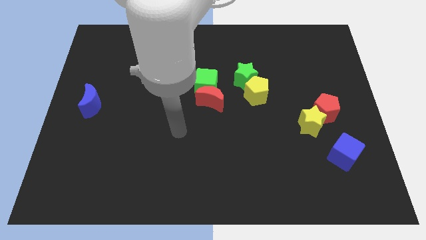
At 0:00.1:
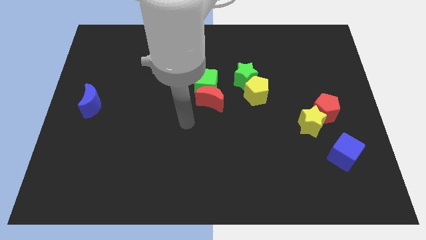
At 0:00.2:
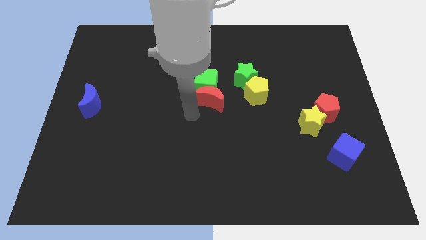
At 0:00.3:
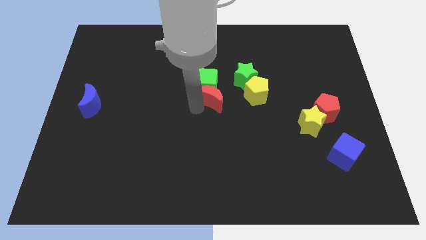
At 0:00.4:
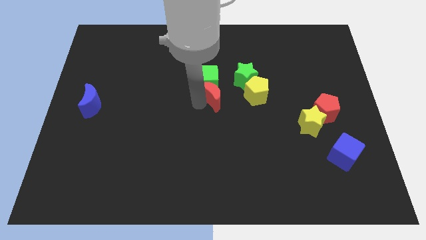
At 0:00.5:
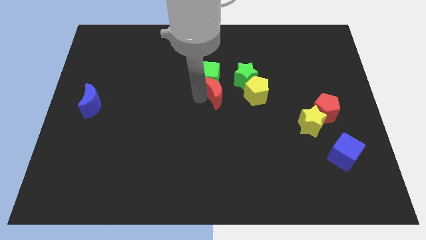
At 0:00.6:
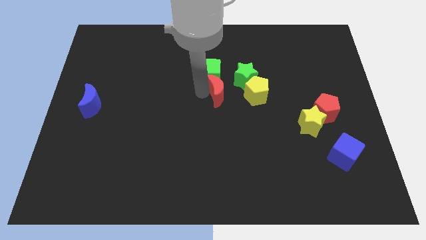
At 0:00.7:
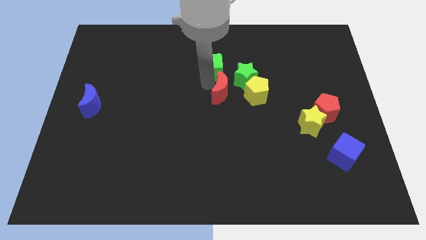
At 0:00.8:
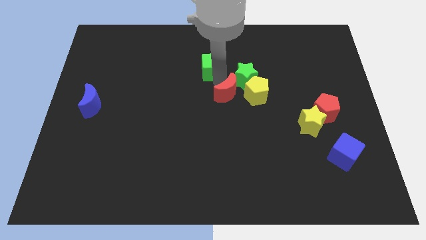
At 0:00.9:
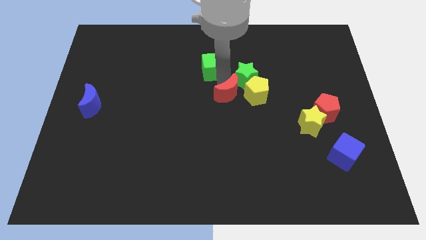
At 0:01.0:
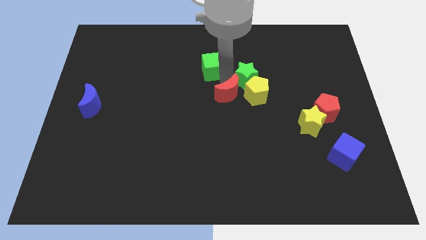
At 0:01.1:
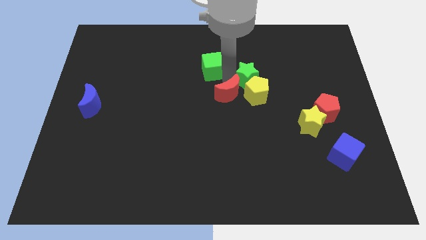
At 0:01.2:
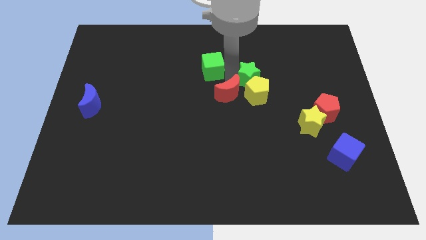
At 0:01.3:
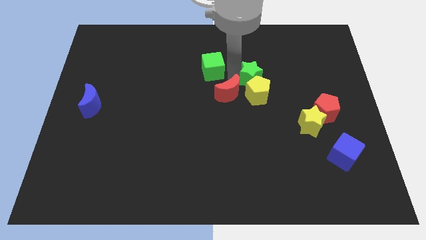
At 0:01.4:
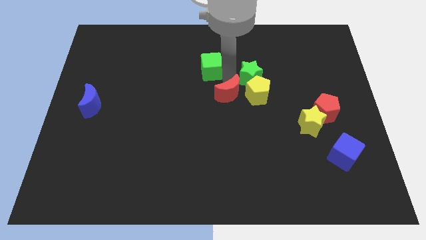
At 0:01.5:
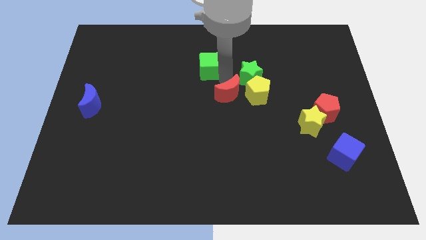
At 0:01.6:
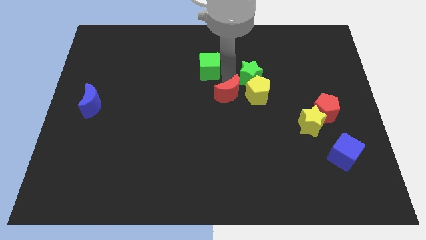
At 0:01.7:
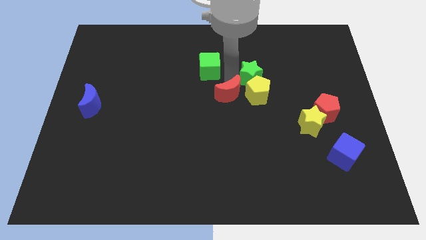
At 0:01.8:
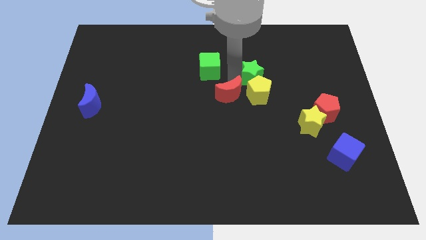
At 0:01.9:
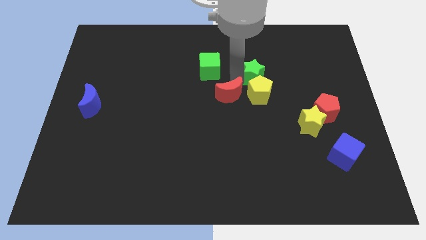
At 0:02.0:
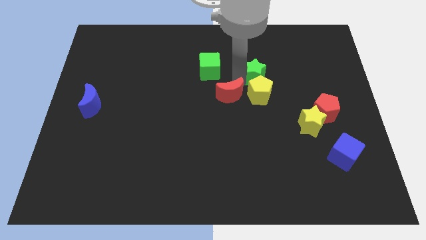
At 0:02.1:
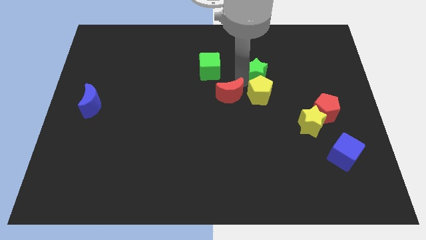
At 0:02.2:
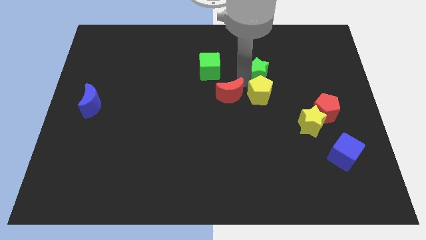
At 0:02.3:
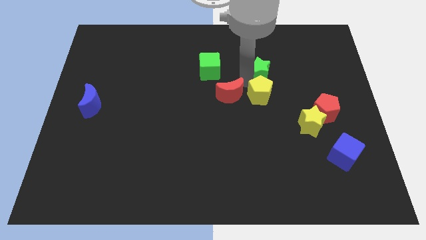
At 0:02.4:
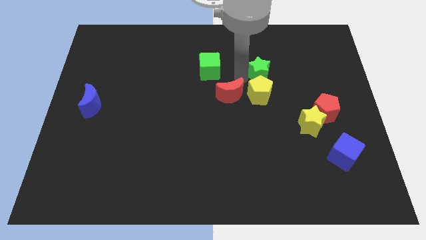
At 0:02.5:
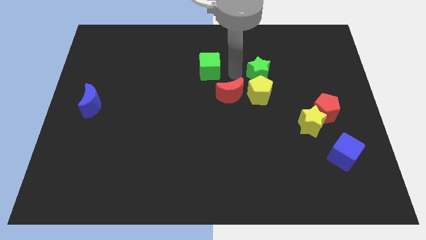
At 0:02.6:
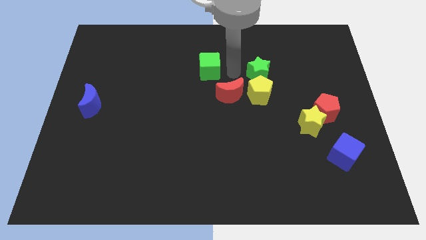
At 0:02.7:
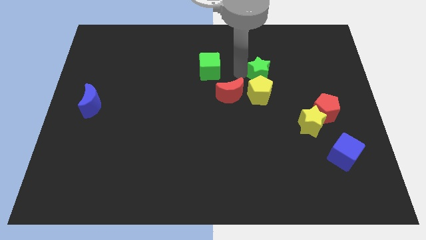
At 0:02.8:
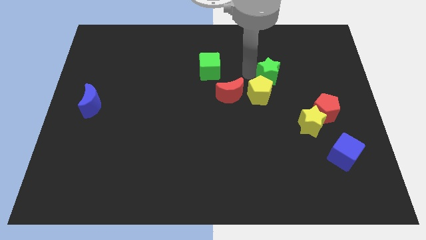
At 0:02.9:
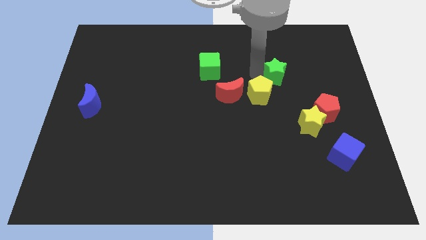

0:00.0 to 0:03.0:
slide the green star a little right

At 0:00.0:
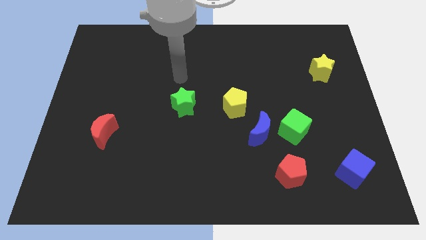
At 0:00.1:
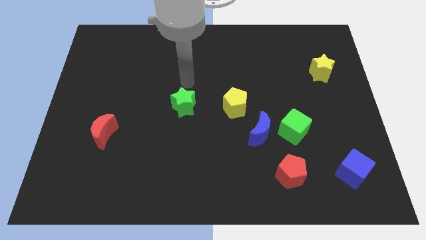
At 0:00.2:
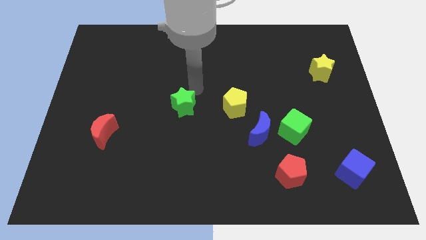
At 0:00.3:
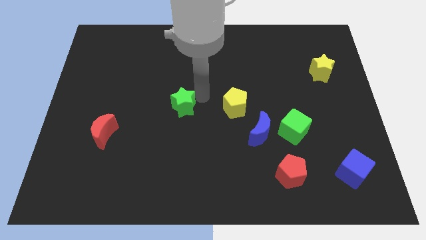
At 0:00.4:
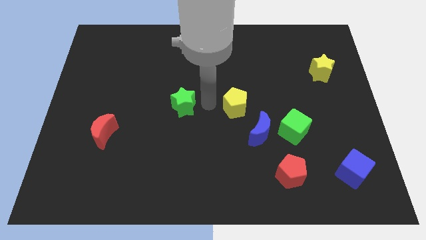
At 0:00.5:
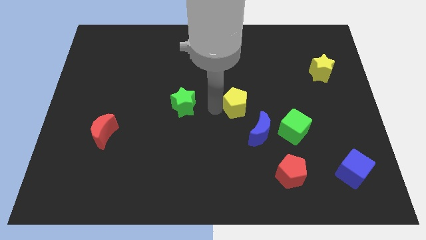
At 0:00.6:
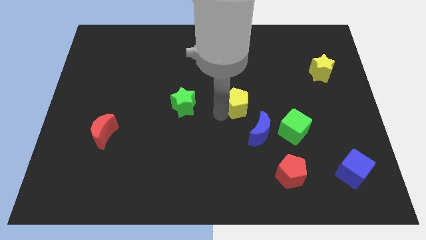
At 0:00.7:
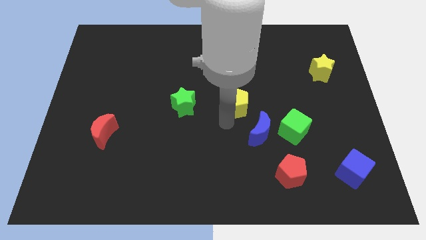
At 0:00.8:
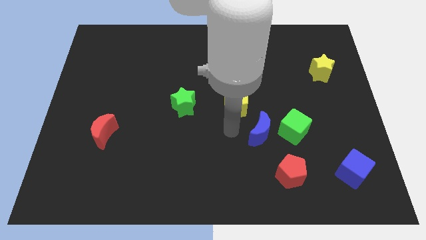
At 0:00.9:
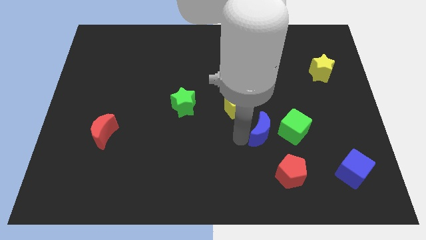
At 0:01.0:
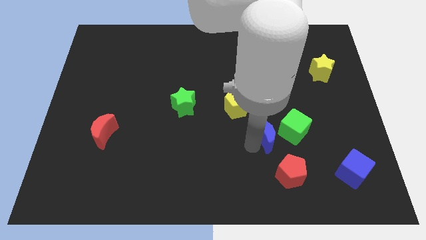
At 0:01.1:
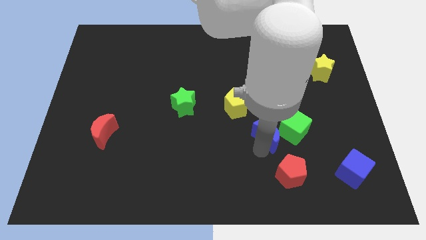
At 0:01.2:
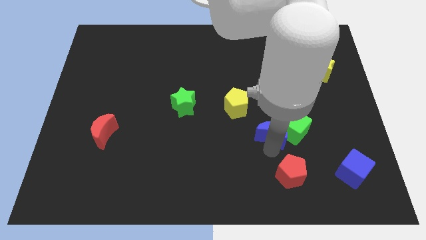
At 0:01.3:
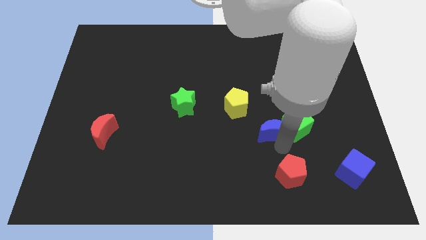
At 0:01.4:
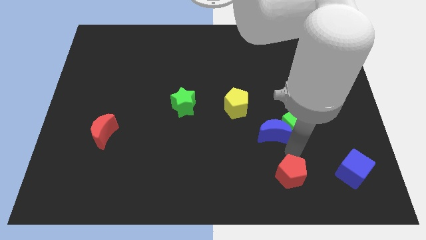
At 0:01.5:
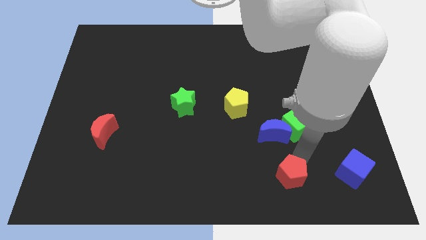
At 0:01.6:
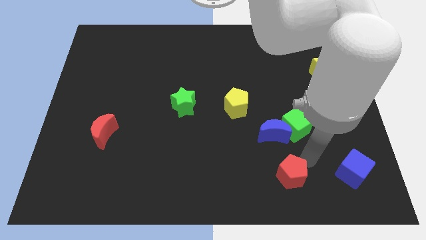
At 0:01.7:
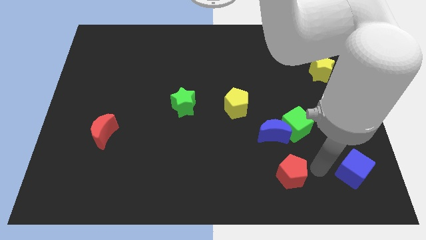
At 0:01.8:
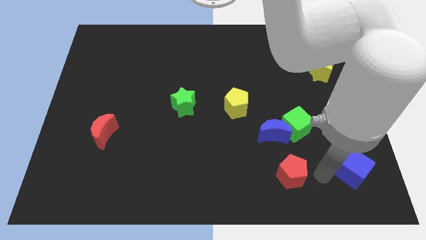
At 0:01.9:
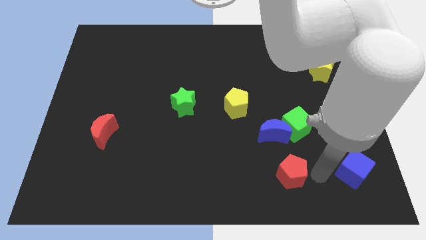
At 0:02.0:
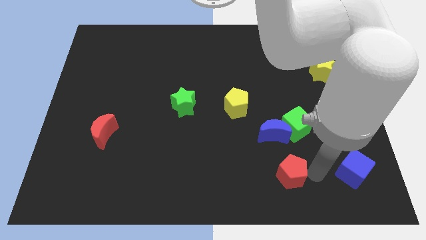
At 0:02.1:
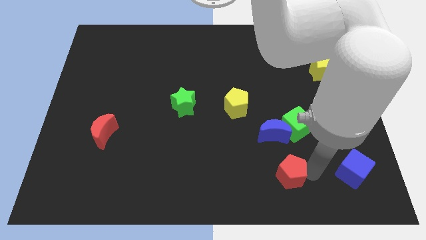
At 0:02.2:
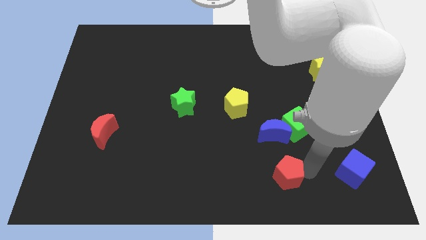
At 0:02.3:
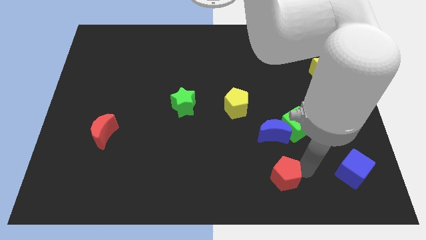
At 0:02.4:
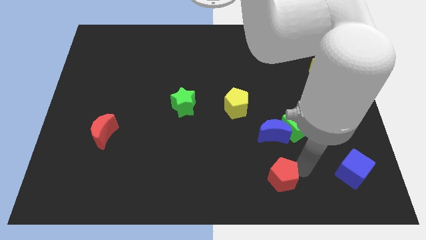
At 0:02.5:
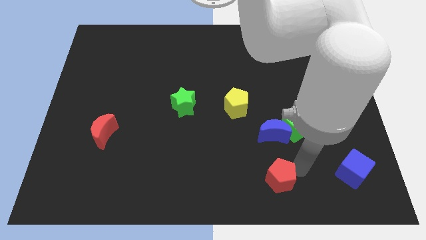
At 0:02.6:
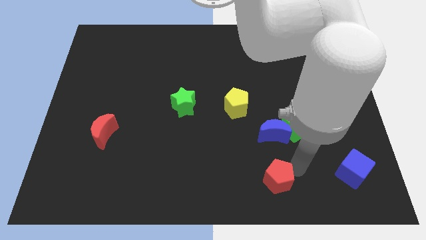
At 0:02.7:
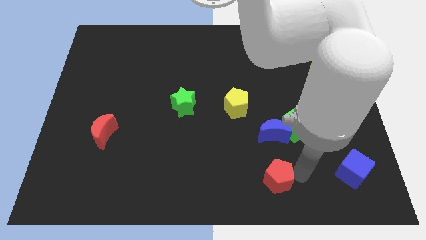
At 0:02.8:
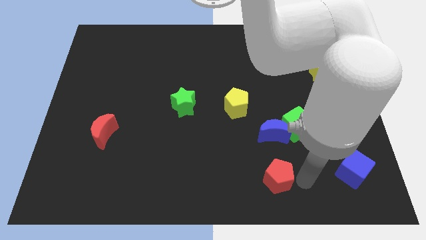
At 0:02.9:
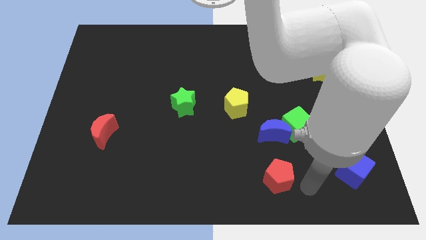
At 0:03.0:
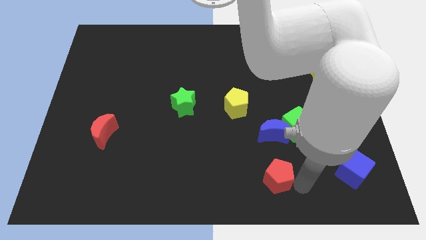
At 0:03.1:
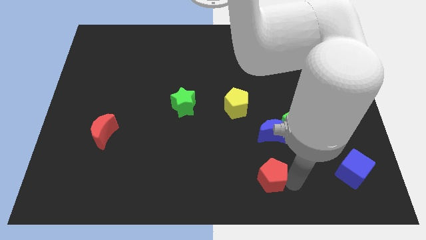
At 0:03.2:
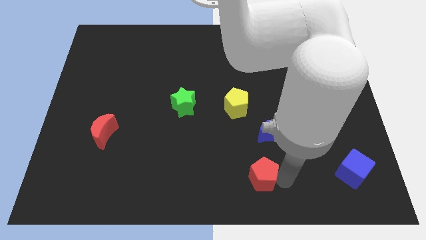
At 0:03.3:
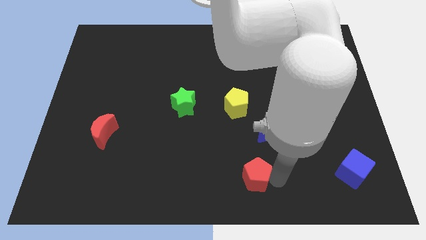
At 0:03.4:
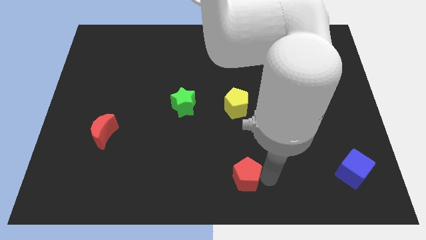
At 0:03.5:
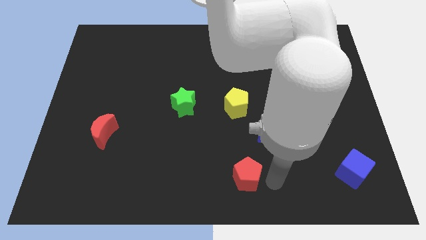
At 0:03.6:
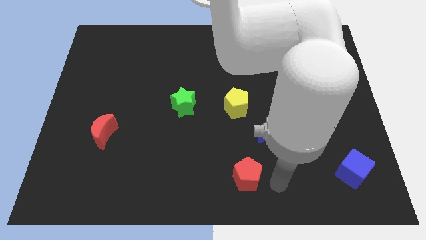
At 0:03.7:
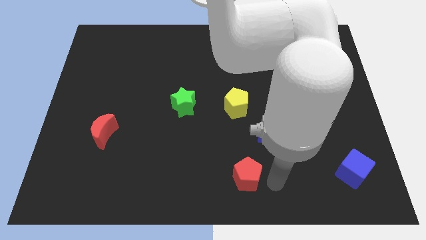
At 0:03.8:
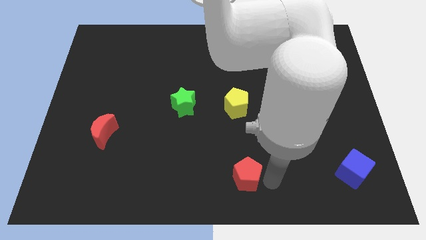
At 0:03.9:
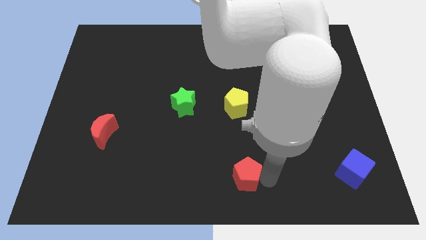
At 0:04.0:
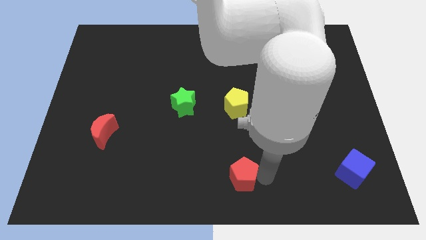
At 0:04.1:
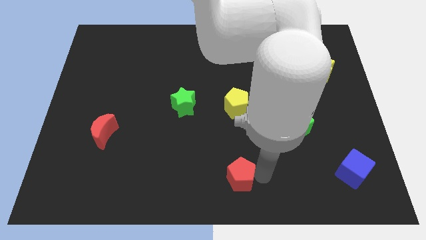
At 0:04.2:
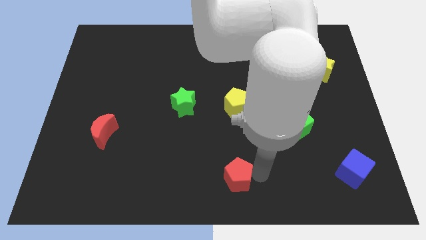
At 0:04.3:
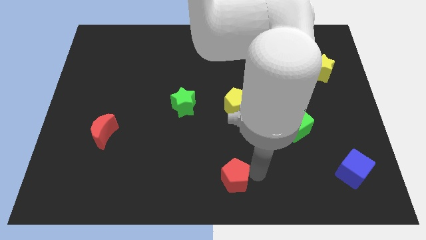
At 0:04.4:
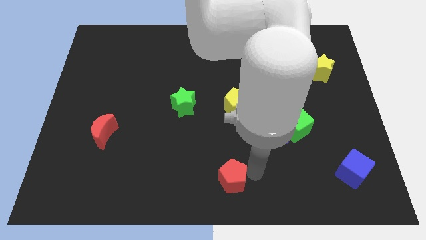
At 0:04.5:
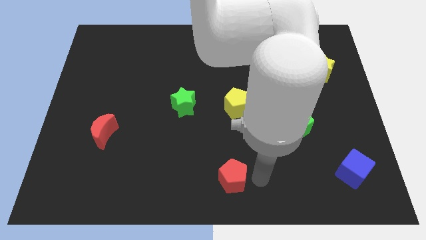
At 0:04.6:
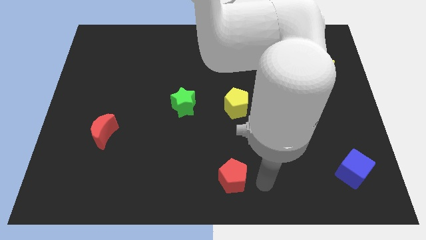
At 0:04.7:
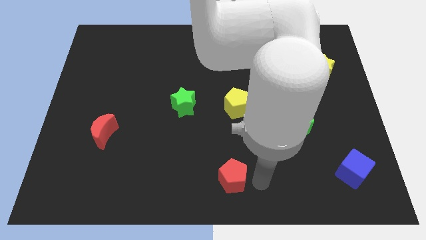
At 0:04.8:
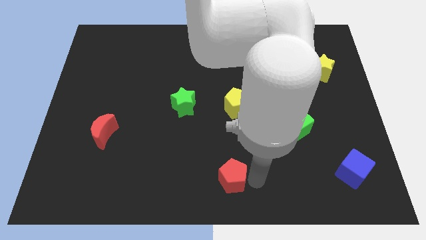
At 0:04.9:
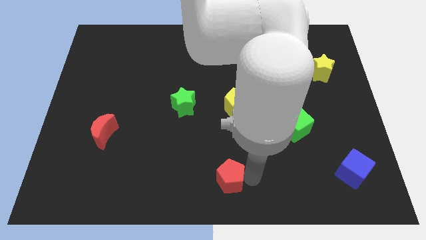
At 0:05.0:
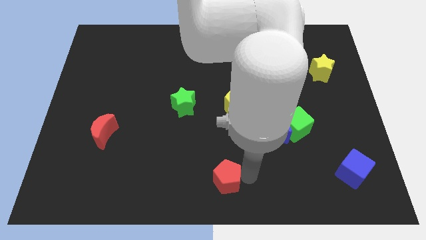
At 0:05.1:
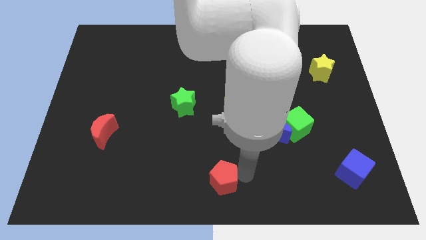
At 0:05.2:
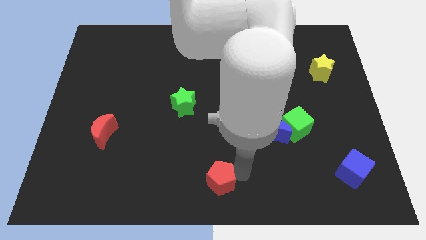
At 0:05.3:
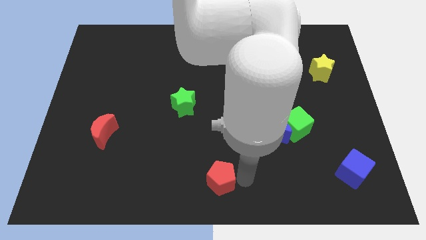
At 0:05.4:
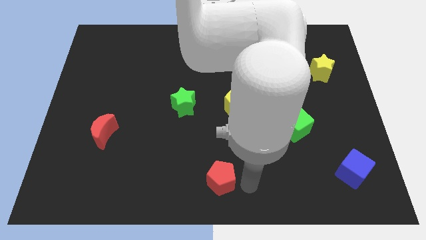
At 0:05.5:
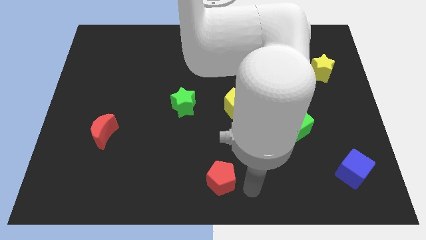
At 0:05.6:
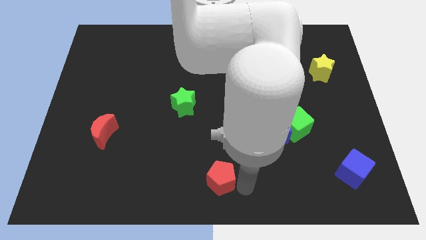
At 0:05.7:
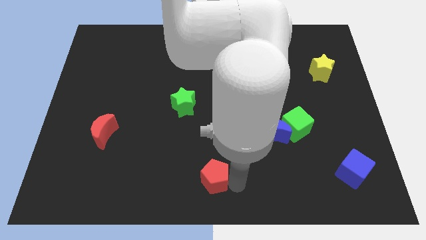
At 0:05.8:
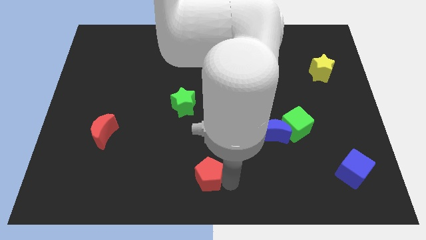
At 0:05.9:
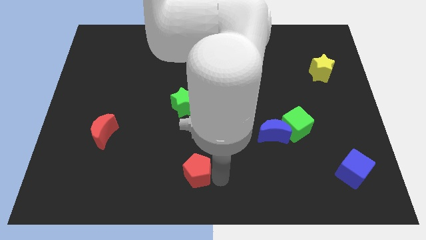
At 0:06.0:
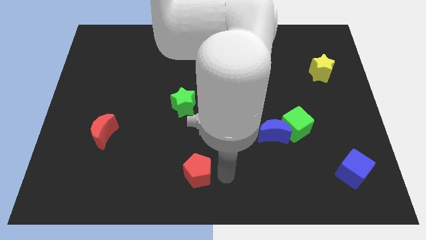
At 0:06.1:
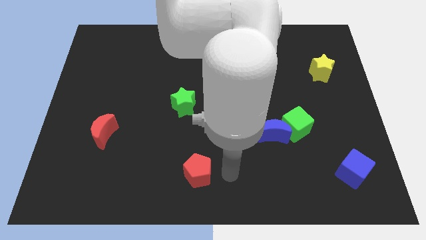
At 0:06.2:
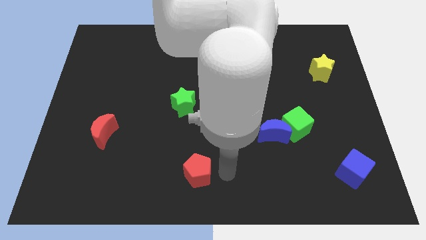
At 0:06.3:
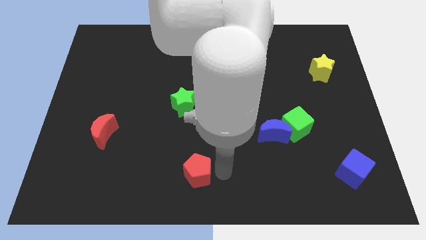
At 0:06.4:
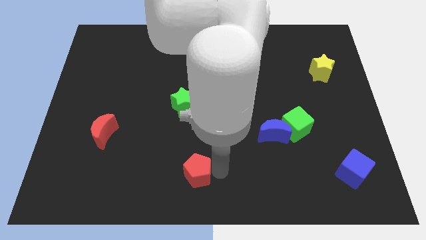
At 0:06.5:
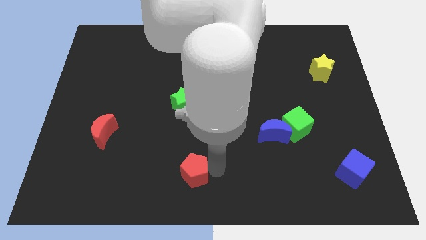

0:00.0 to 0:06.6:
move the red pentagon to the left
